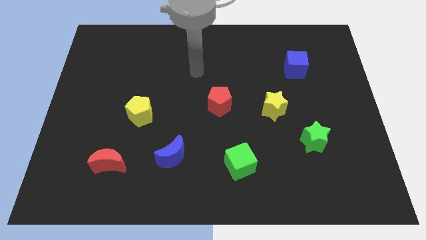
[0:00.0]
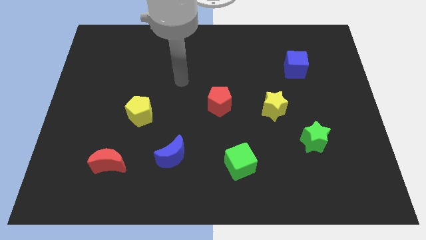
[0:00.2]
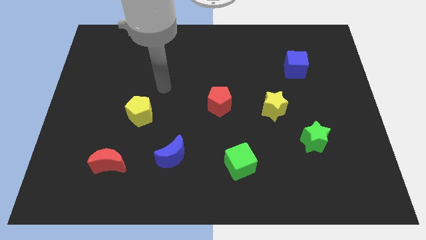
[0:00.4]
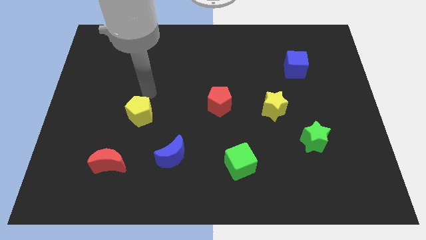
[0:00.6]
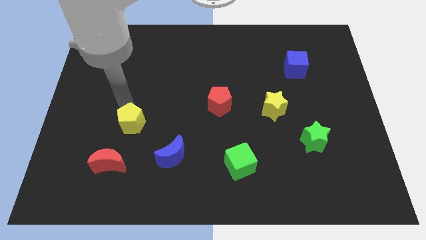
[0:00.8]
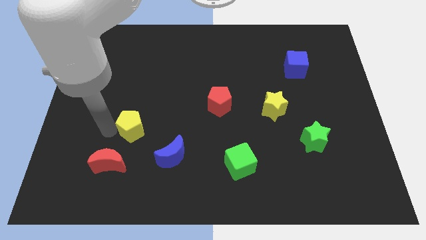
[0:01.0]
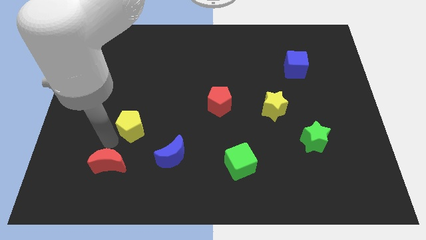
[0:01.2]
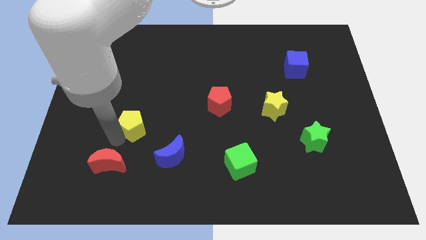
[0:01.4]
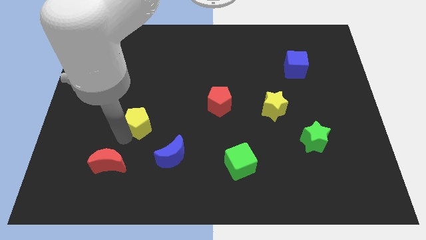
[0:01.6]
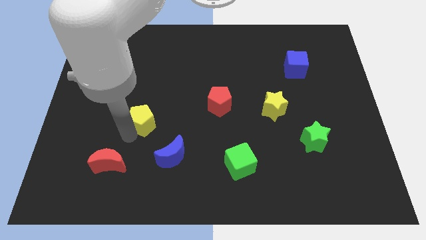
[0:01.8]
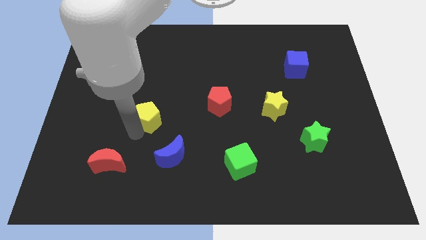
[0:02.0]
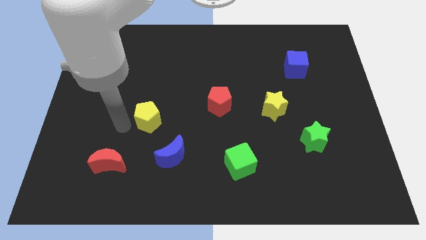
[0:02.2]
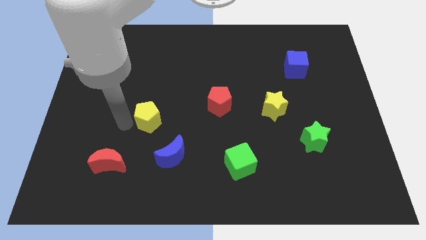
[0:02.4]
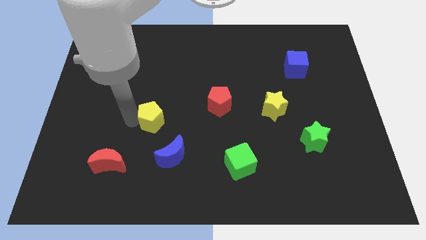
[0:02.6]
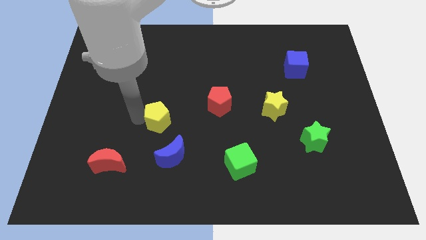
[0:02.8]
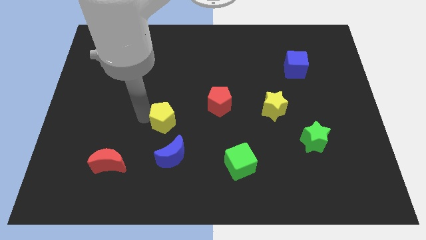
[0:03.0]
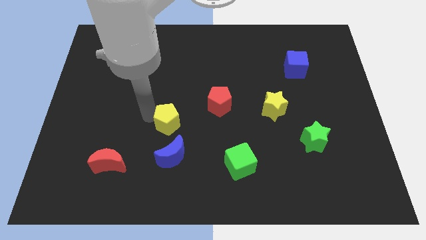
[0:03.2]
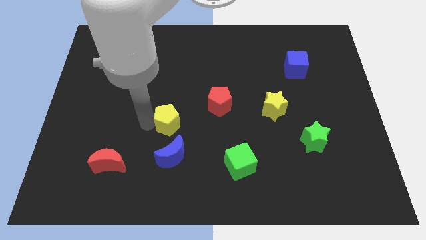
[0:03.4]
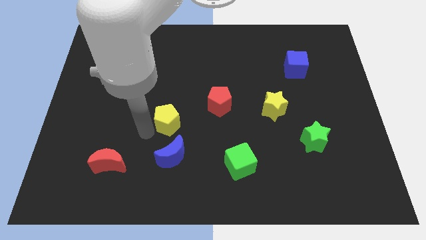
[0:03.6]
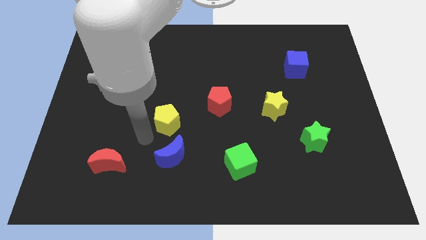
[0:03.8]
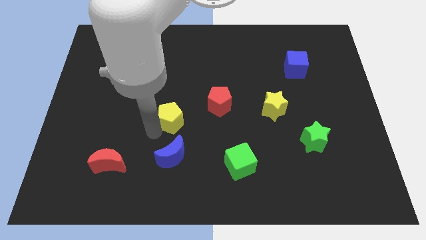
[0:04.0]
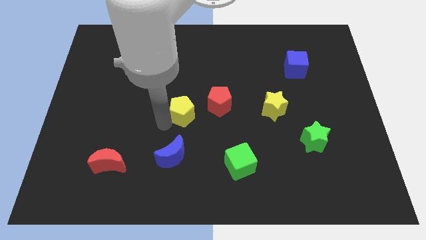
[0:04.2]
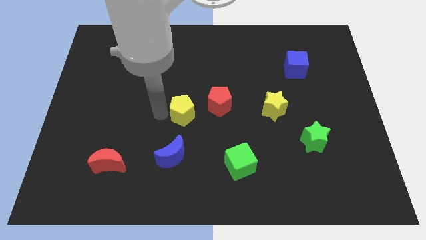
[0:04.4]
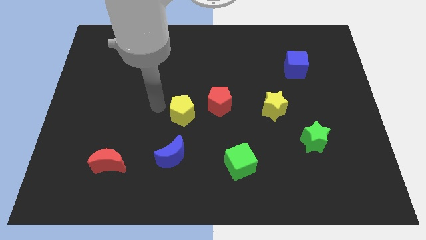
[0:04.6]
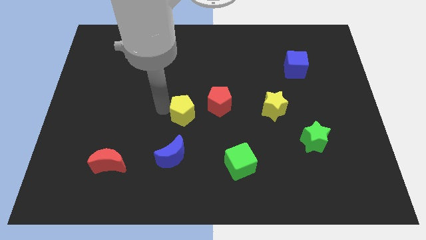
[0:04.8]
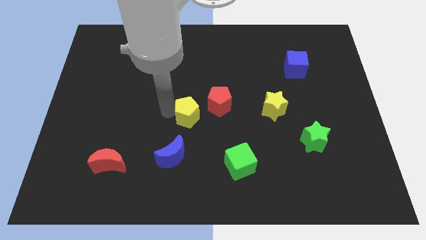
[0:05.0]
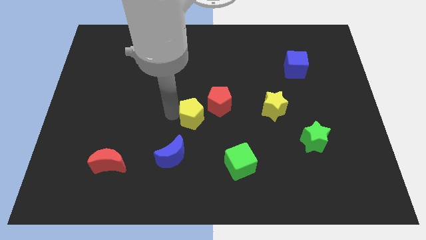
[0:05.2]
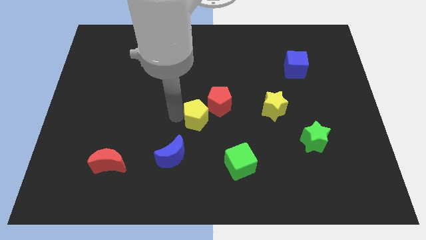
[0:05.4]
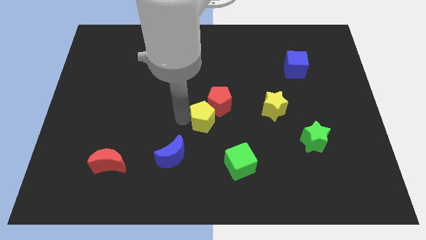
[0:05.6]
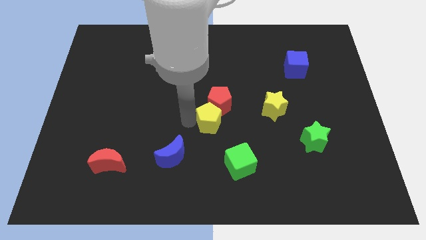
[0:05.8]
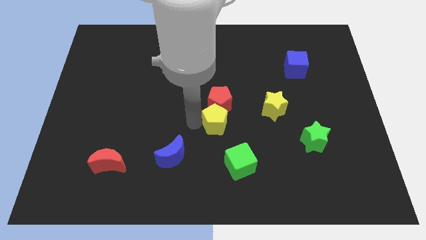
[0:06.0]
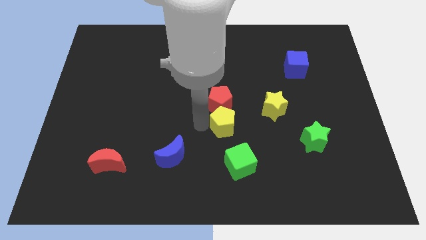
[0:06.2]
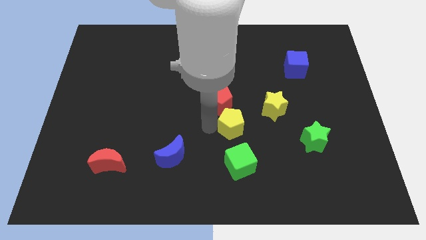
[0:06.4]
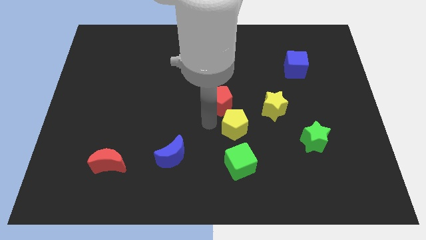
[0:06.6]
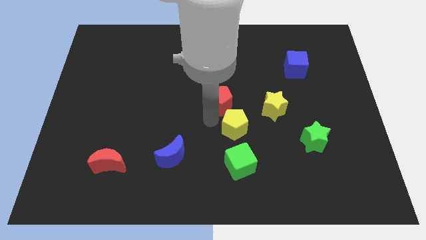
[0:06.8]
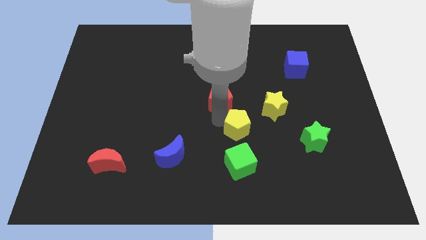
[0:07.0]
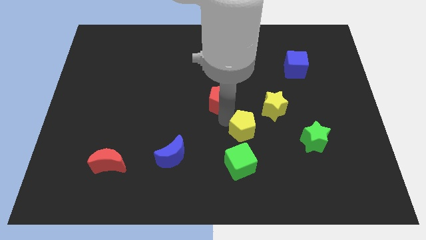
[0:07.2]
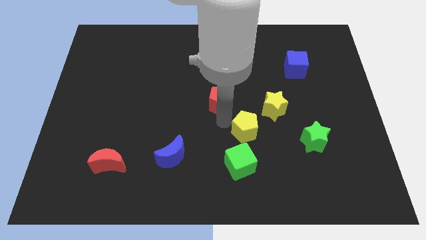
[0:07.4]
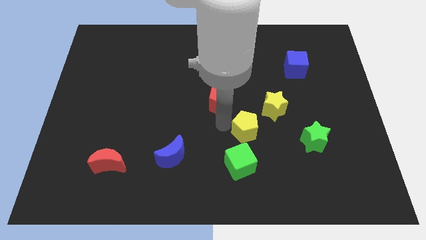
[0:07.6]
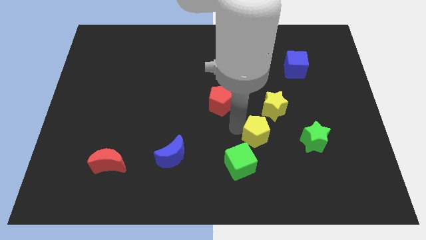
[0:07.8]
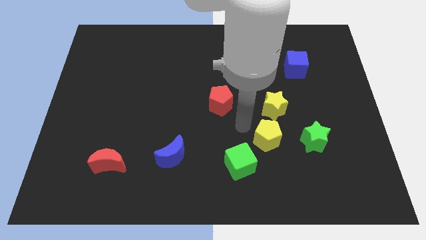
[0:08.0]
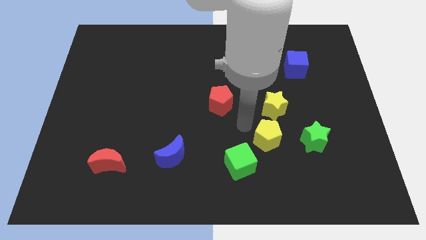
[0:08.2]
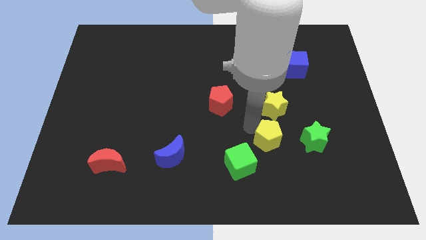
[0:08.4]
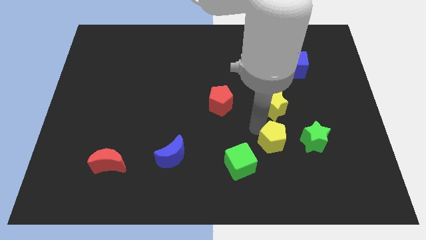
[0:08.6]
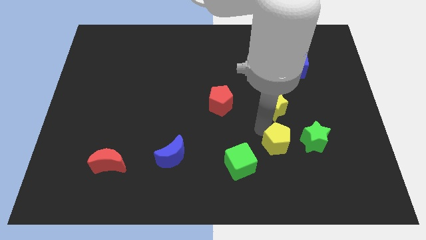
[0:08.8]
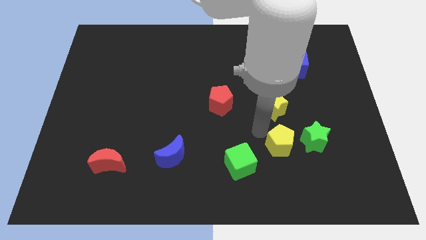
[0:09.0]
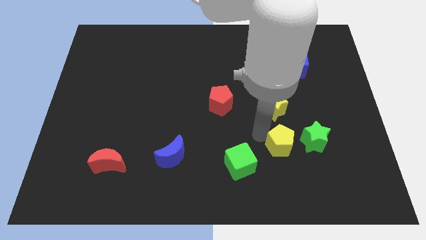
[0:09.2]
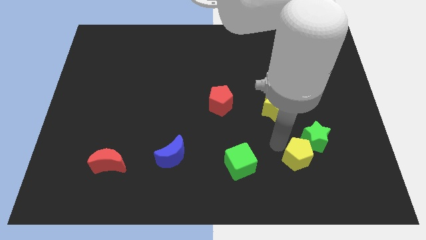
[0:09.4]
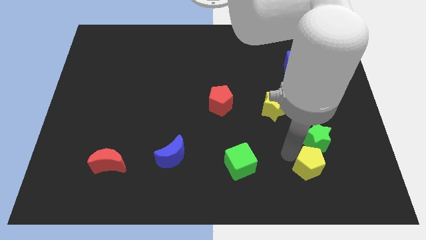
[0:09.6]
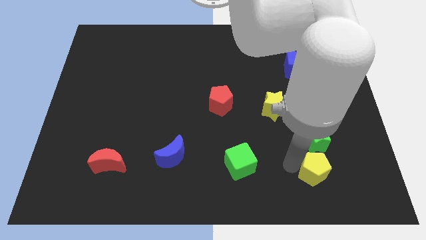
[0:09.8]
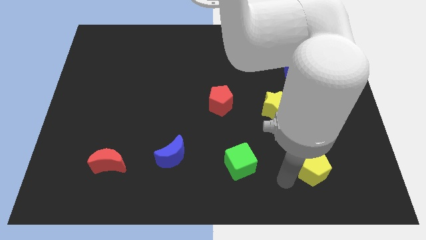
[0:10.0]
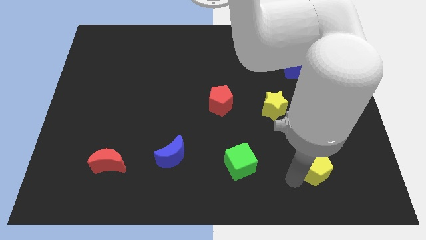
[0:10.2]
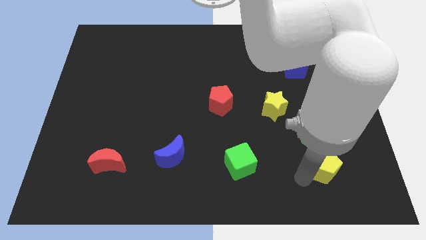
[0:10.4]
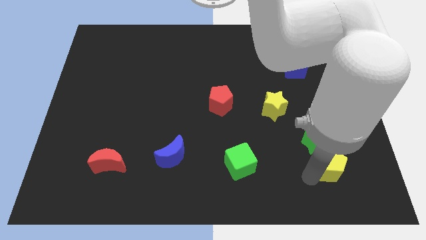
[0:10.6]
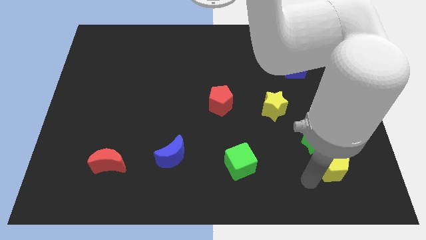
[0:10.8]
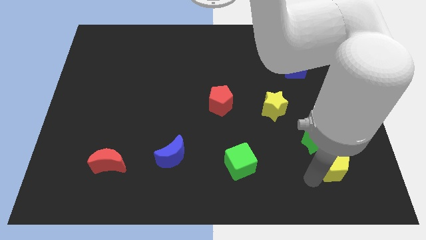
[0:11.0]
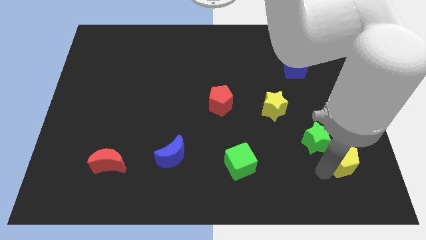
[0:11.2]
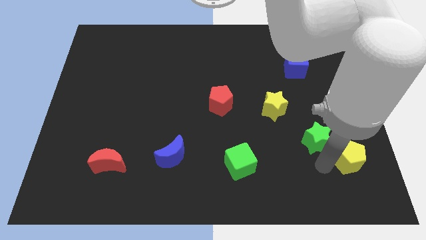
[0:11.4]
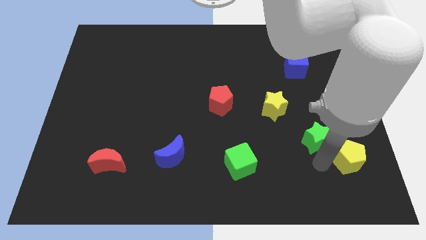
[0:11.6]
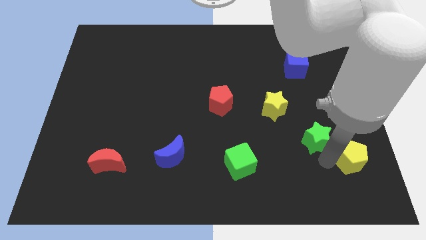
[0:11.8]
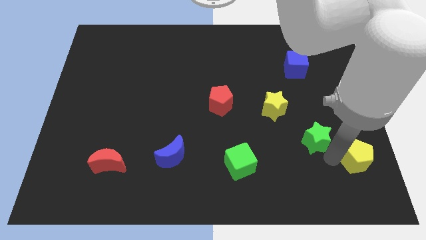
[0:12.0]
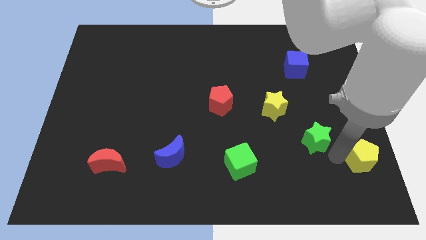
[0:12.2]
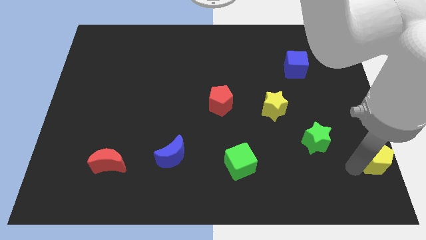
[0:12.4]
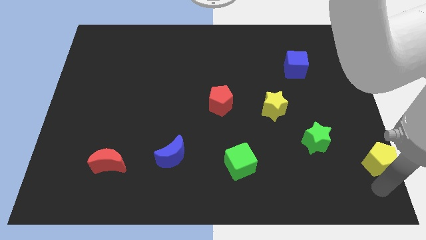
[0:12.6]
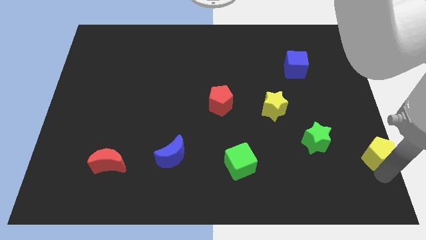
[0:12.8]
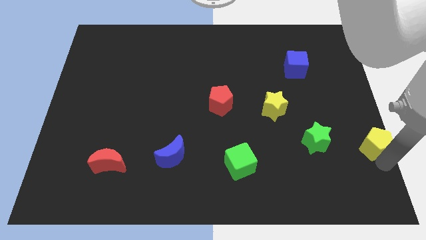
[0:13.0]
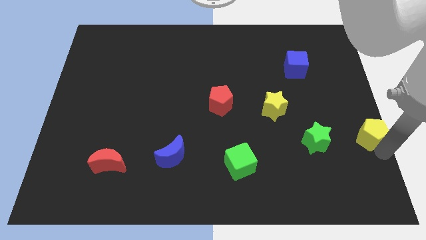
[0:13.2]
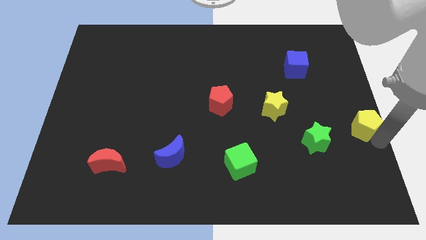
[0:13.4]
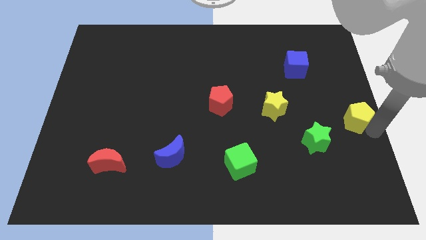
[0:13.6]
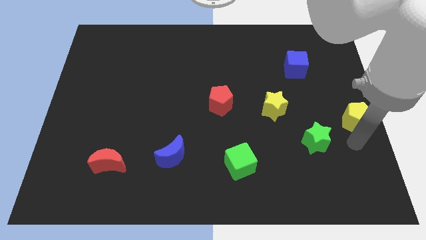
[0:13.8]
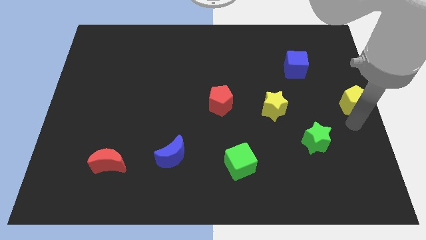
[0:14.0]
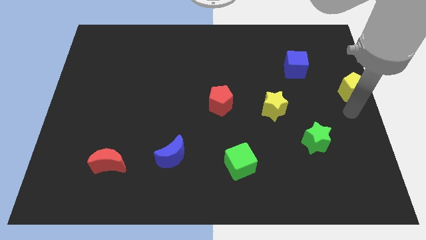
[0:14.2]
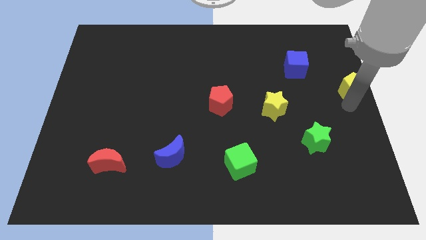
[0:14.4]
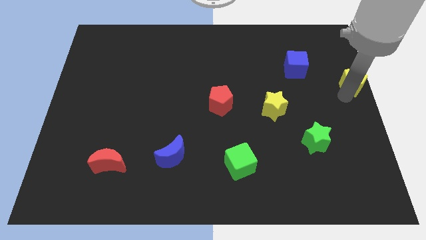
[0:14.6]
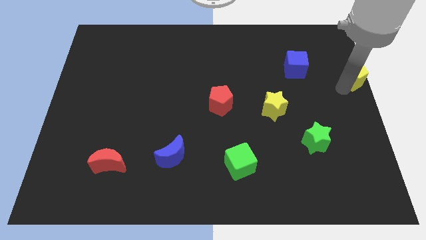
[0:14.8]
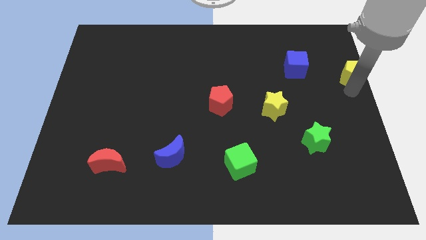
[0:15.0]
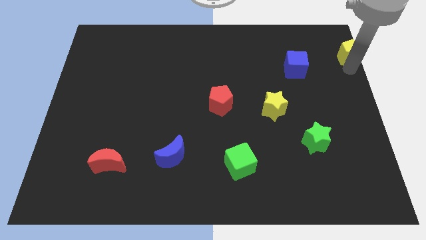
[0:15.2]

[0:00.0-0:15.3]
slide the yellow pentagon to the top right
